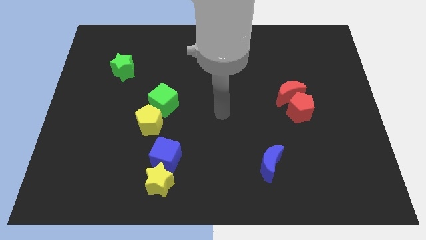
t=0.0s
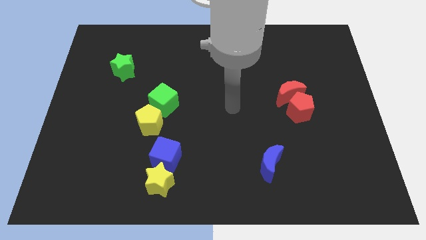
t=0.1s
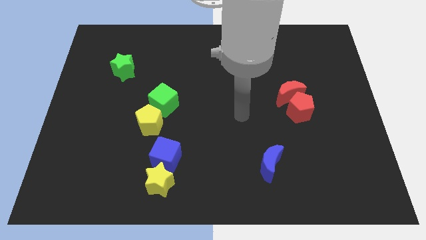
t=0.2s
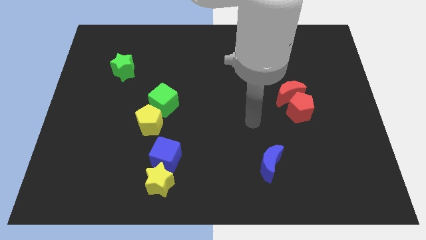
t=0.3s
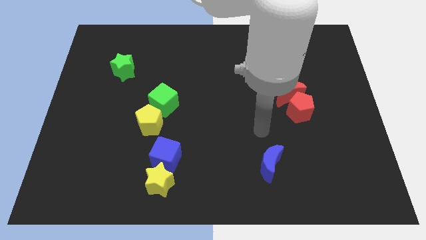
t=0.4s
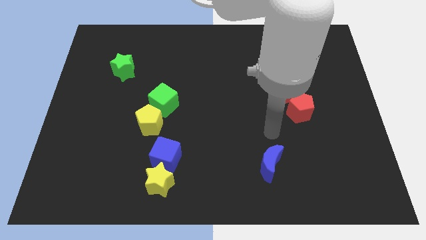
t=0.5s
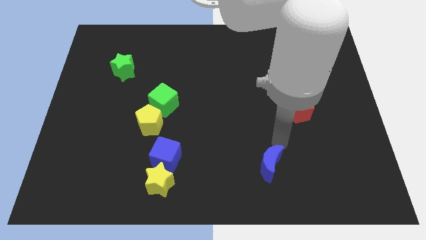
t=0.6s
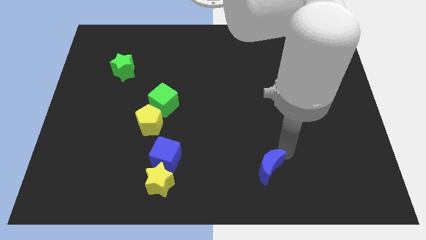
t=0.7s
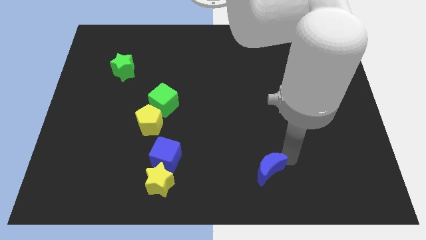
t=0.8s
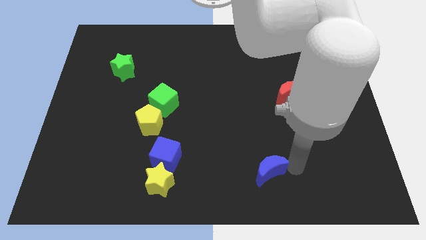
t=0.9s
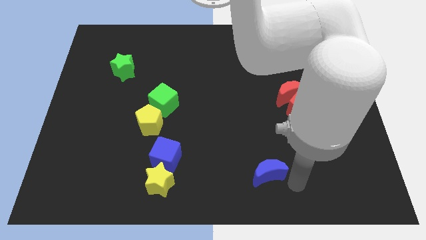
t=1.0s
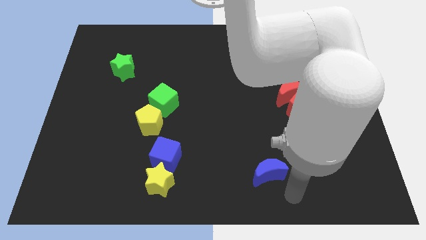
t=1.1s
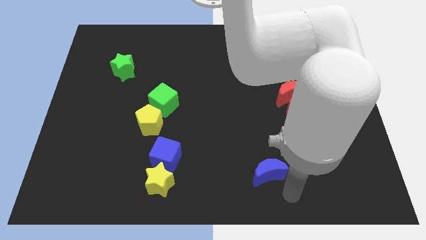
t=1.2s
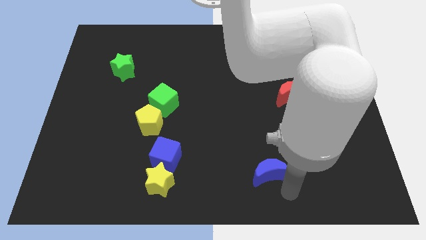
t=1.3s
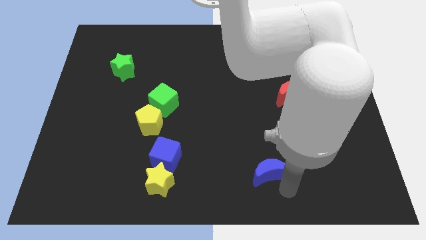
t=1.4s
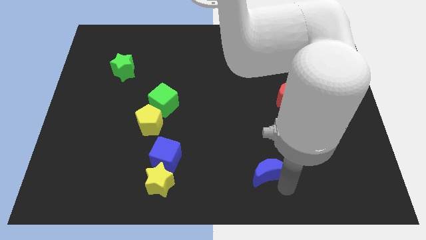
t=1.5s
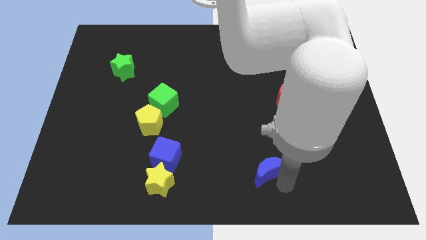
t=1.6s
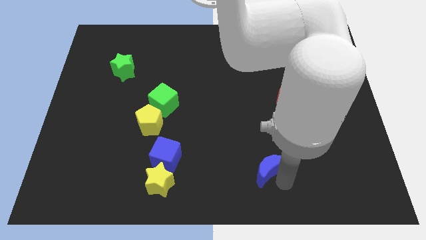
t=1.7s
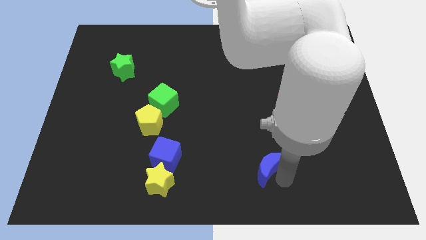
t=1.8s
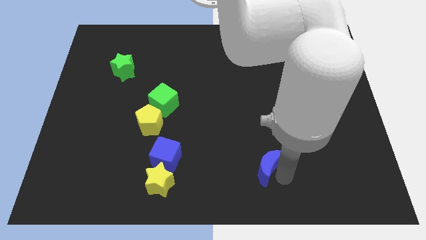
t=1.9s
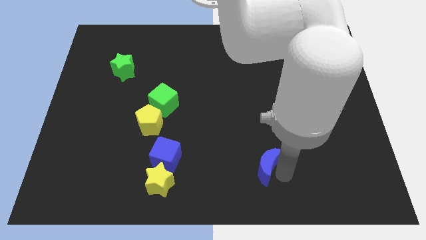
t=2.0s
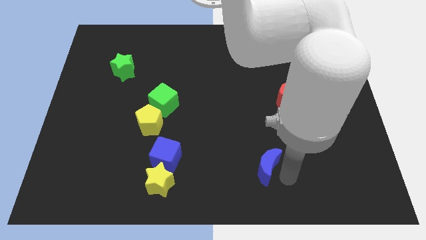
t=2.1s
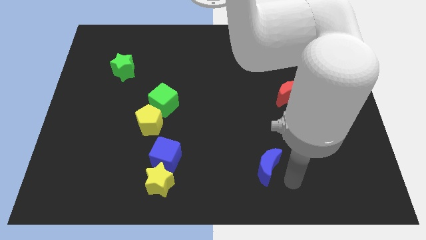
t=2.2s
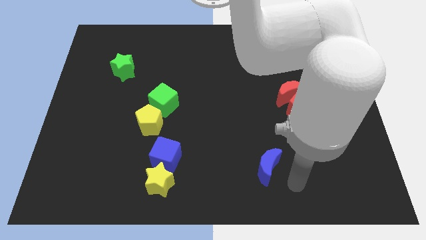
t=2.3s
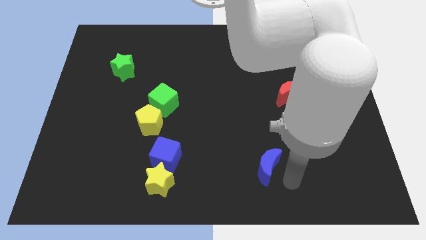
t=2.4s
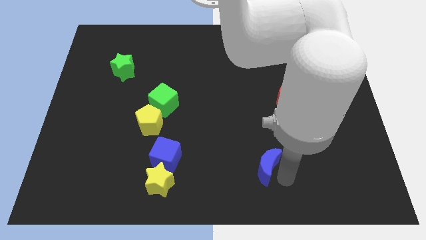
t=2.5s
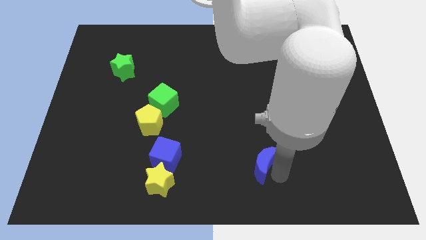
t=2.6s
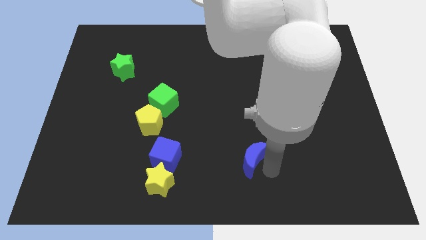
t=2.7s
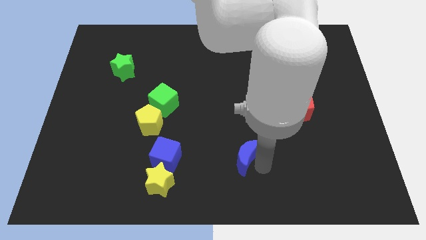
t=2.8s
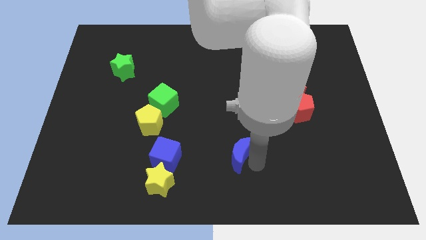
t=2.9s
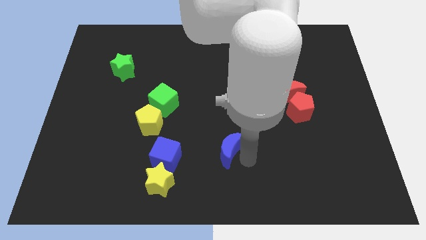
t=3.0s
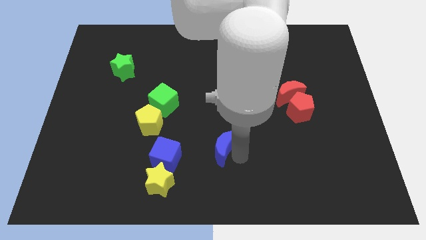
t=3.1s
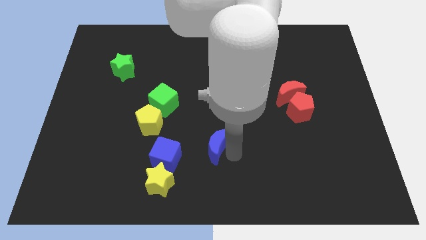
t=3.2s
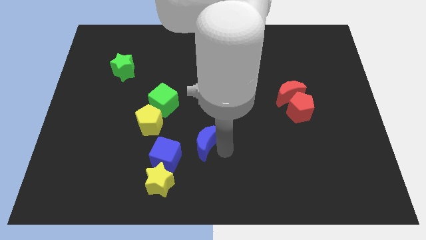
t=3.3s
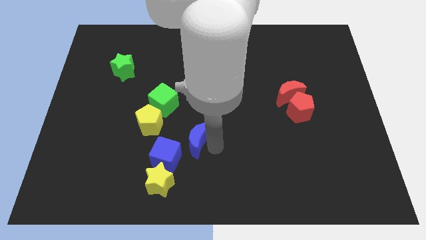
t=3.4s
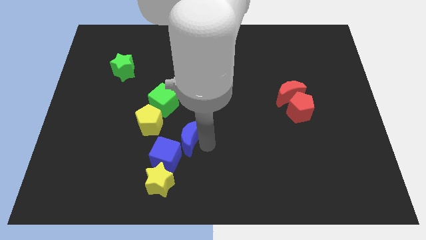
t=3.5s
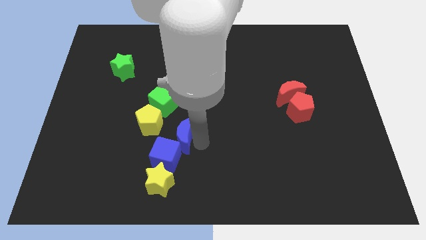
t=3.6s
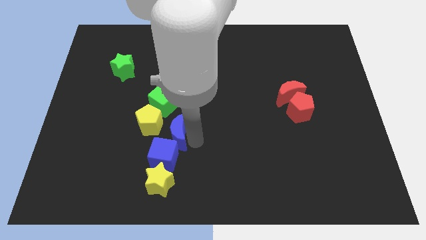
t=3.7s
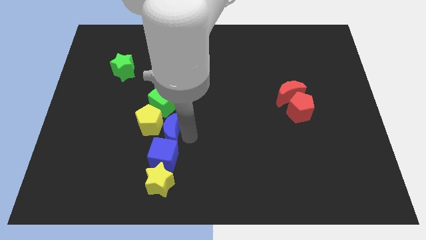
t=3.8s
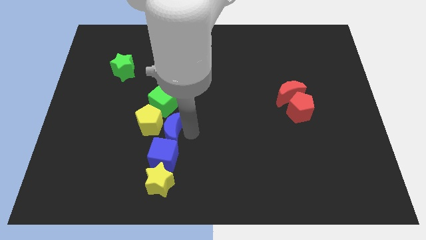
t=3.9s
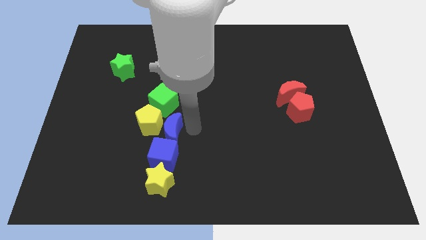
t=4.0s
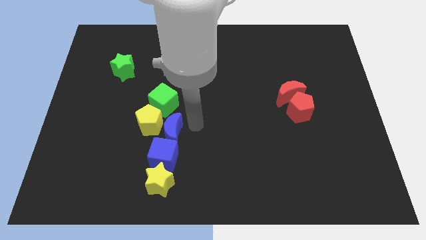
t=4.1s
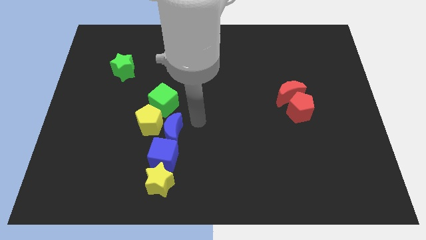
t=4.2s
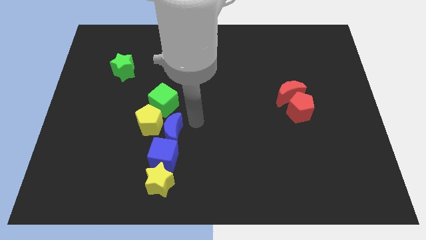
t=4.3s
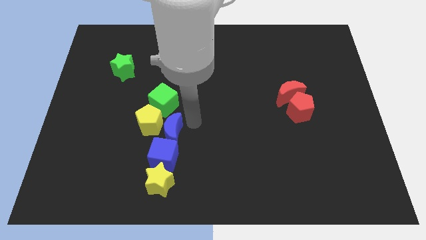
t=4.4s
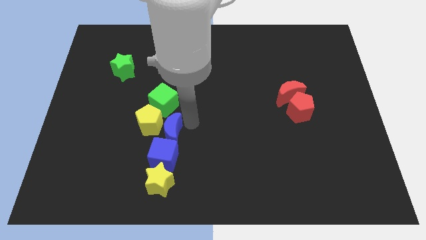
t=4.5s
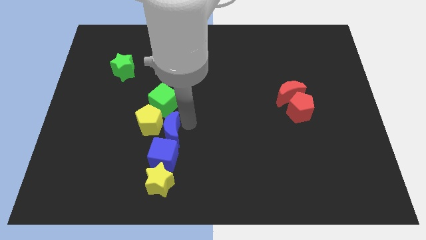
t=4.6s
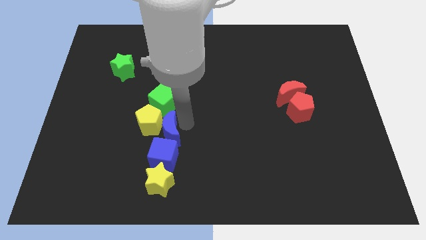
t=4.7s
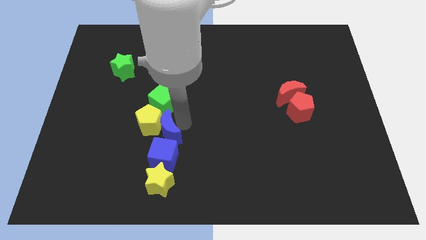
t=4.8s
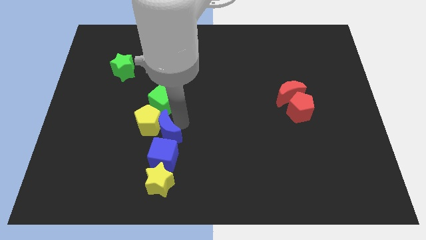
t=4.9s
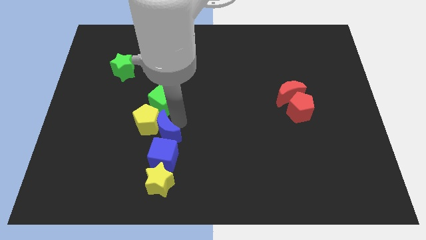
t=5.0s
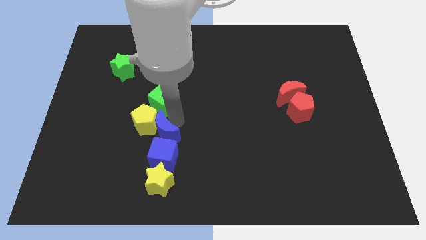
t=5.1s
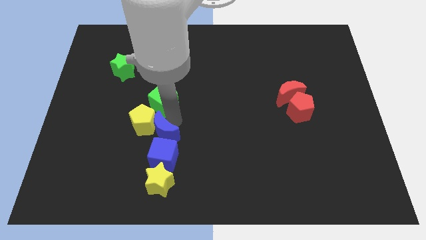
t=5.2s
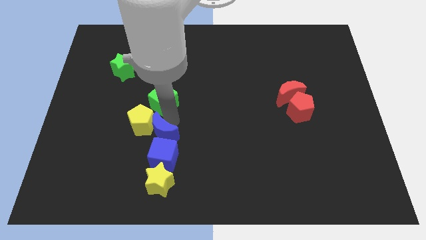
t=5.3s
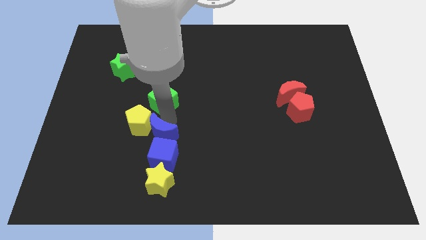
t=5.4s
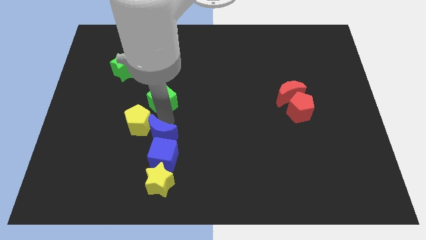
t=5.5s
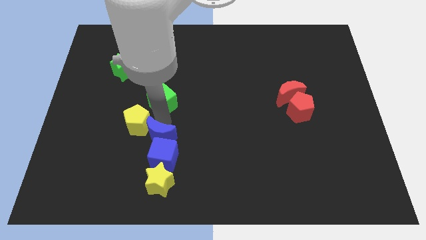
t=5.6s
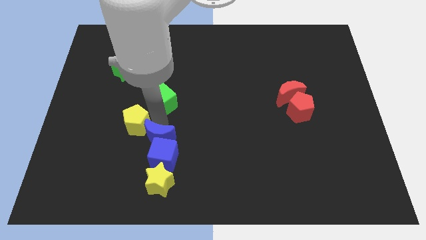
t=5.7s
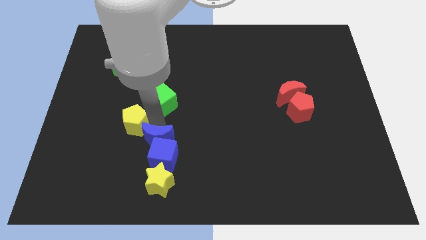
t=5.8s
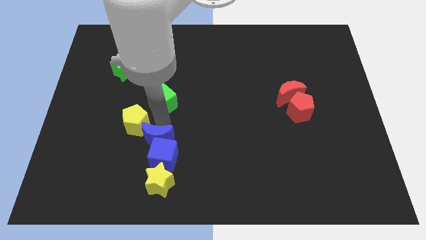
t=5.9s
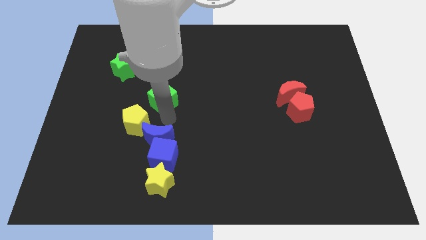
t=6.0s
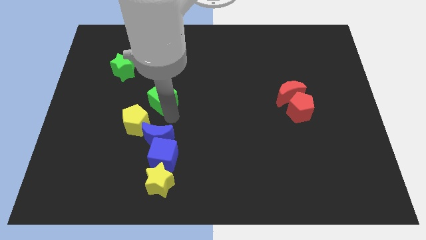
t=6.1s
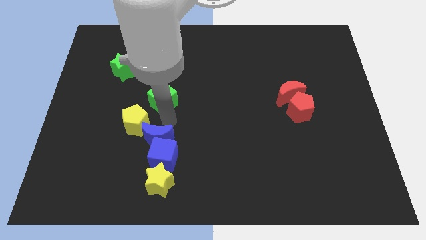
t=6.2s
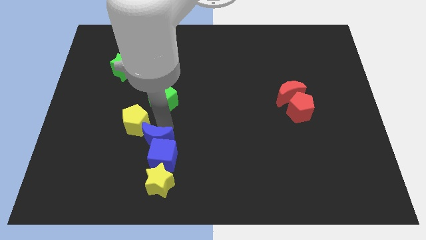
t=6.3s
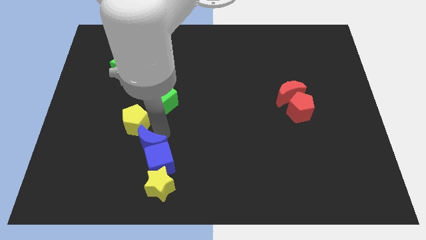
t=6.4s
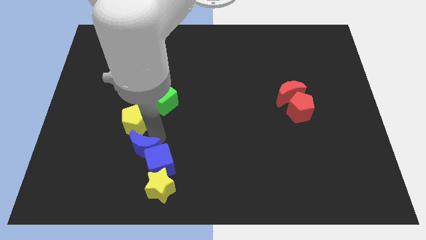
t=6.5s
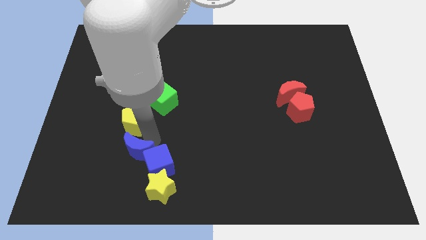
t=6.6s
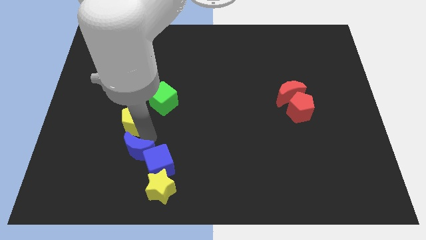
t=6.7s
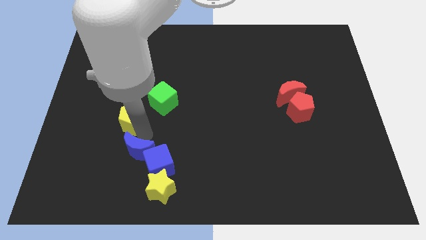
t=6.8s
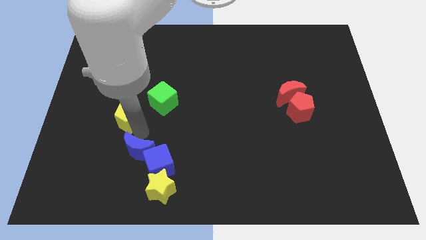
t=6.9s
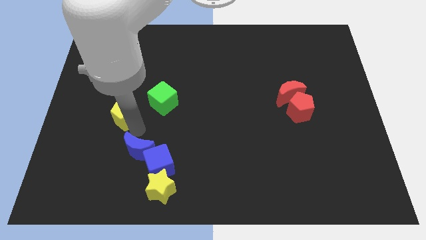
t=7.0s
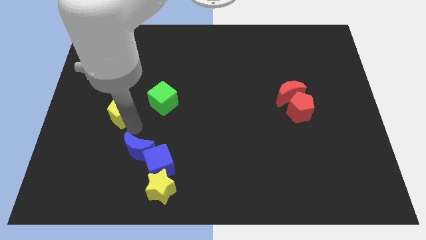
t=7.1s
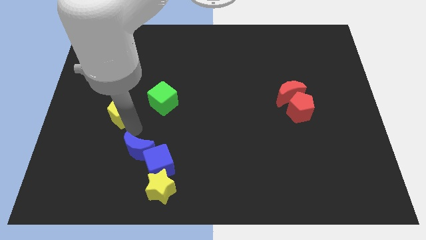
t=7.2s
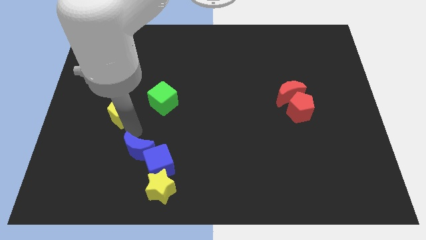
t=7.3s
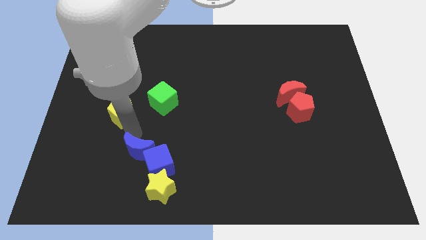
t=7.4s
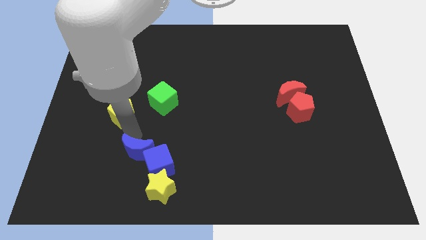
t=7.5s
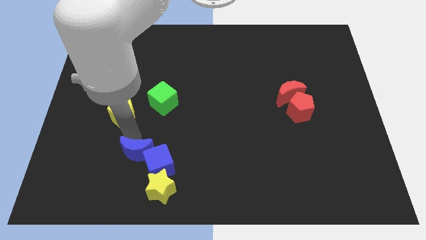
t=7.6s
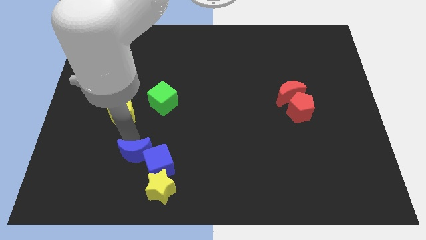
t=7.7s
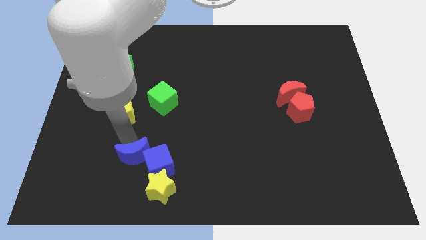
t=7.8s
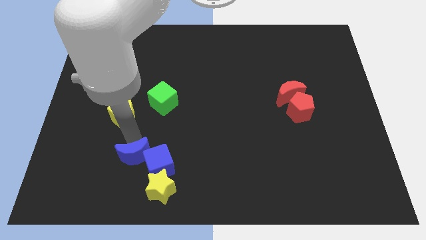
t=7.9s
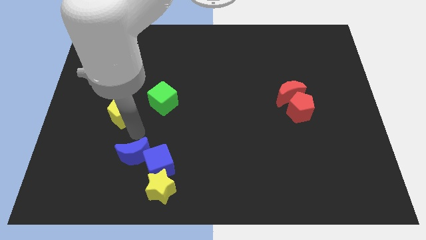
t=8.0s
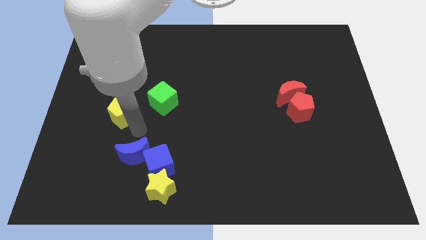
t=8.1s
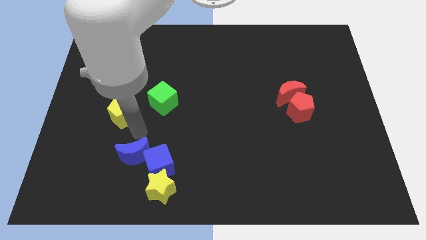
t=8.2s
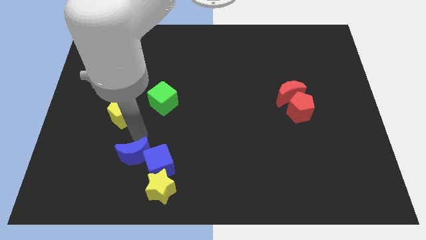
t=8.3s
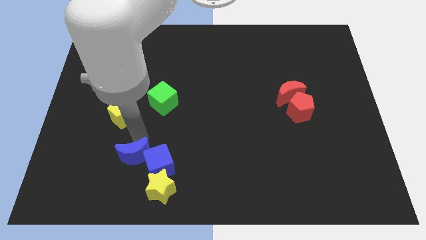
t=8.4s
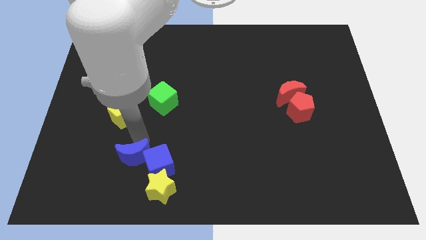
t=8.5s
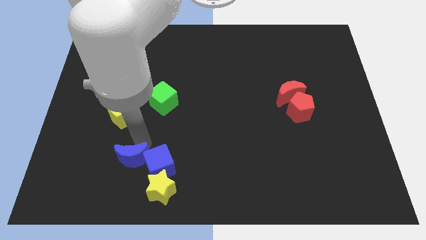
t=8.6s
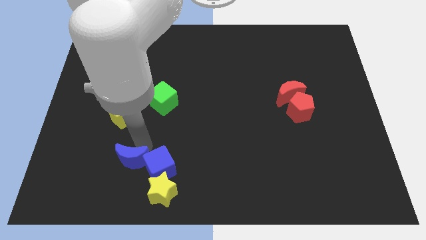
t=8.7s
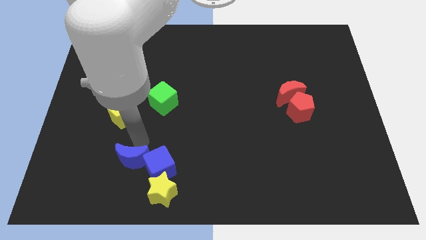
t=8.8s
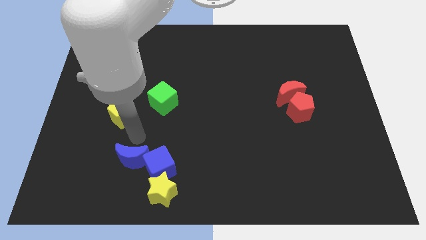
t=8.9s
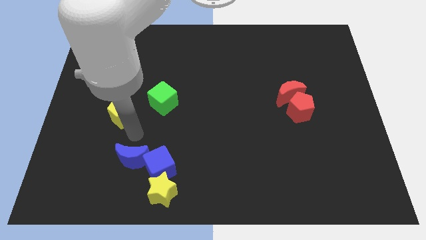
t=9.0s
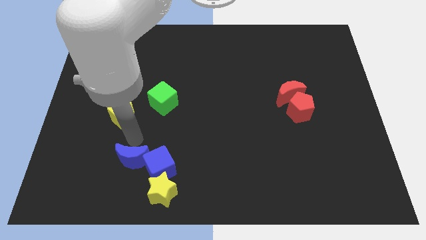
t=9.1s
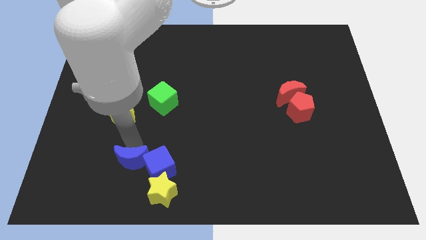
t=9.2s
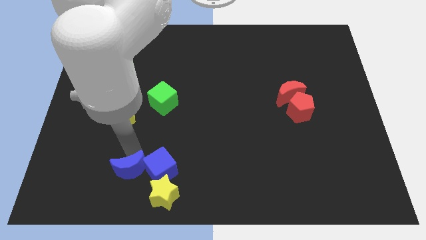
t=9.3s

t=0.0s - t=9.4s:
put the blue moon diagonally down and to the left of the blue cube
